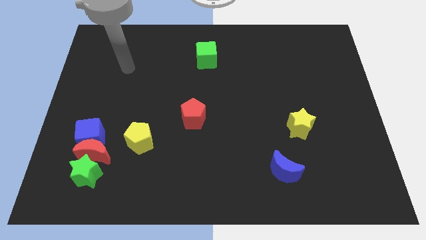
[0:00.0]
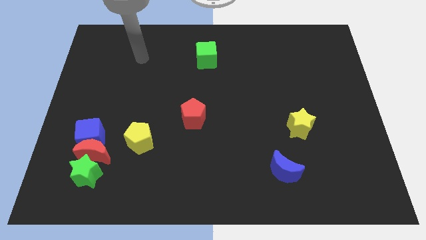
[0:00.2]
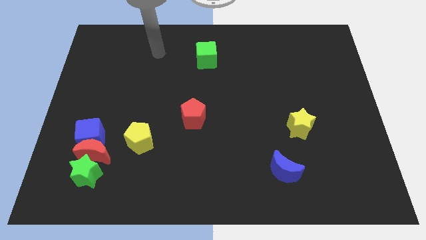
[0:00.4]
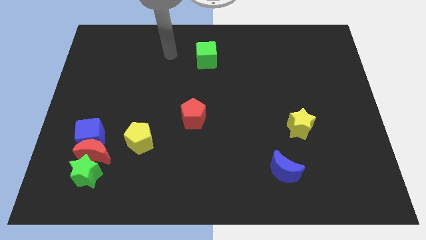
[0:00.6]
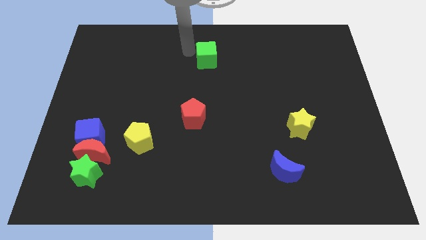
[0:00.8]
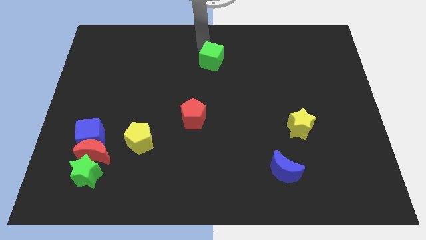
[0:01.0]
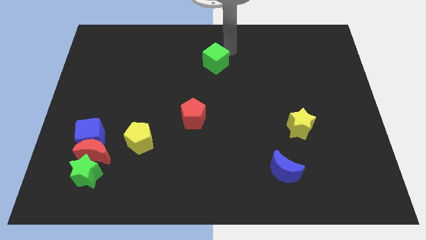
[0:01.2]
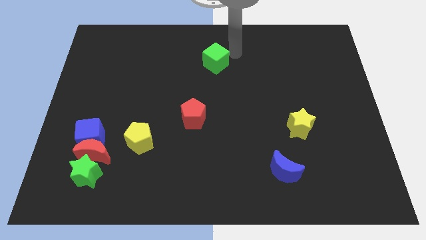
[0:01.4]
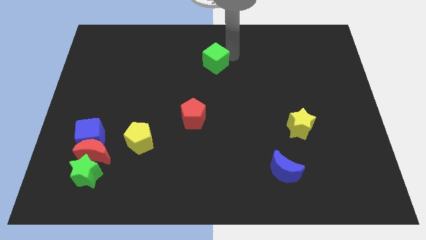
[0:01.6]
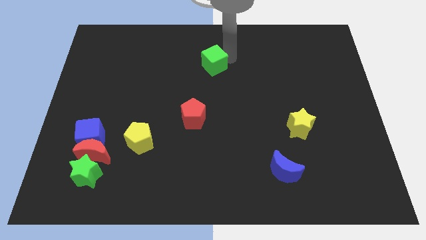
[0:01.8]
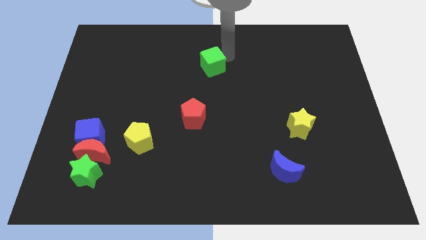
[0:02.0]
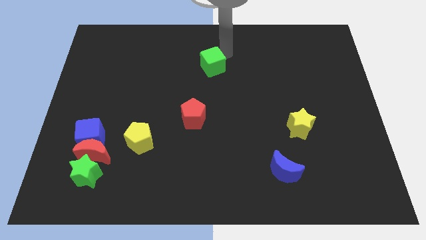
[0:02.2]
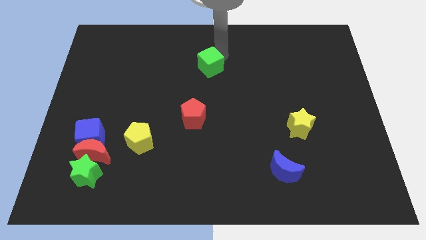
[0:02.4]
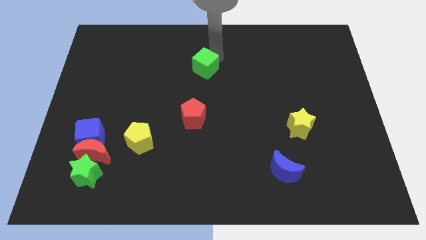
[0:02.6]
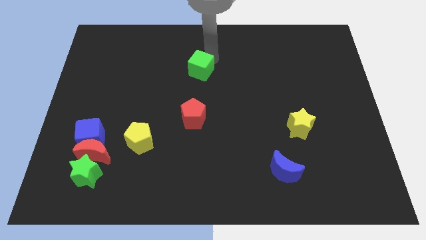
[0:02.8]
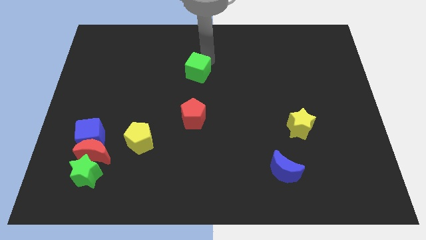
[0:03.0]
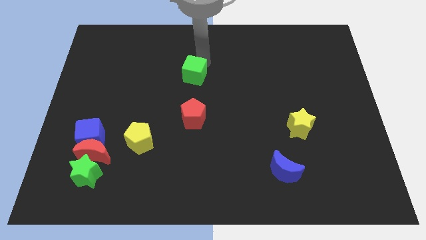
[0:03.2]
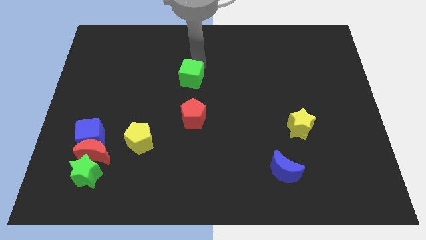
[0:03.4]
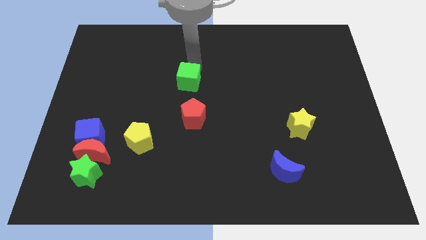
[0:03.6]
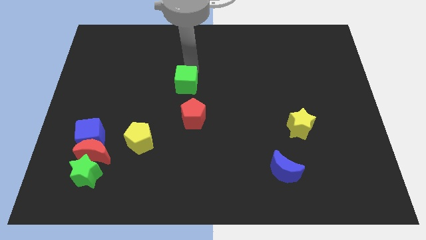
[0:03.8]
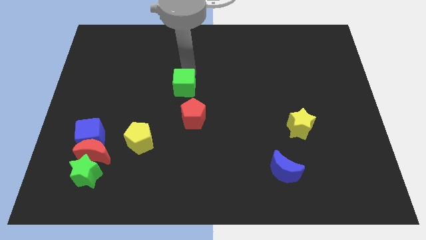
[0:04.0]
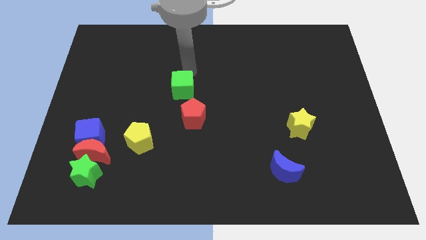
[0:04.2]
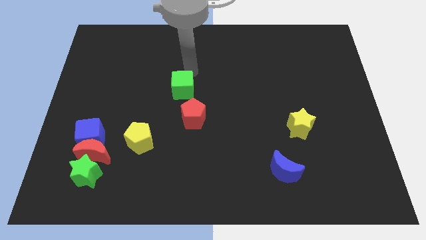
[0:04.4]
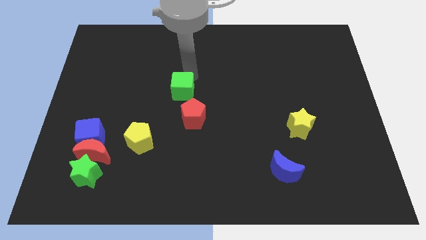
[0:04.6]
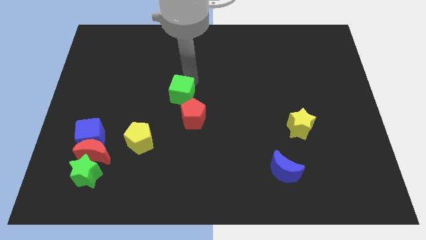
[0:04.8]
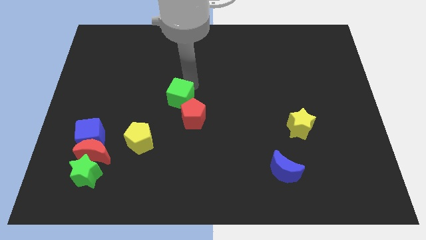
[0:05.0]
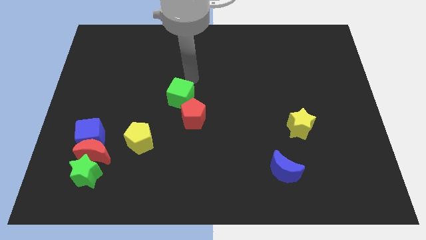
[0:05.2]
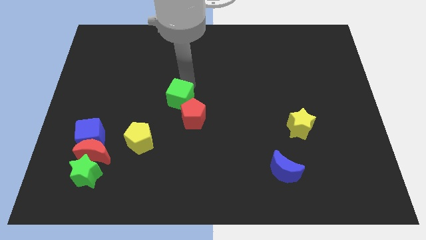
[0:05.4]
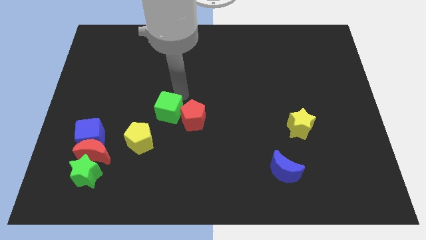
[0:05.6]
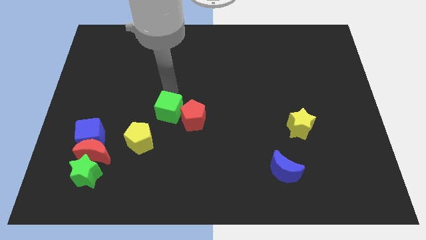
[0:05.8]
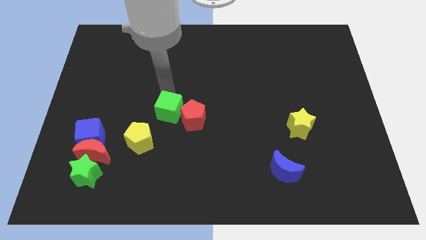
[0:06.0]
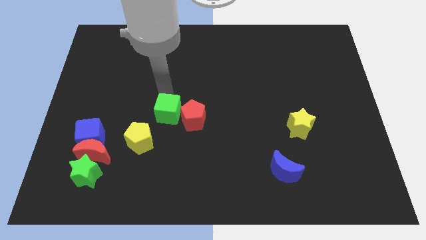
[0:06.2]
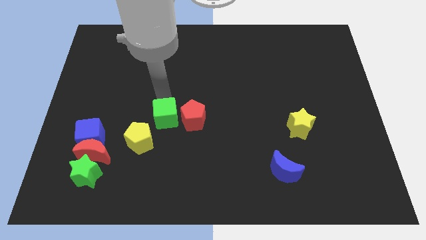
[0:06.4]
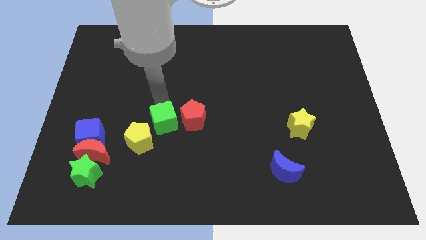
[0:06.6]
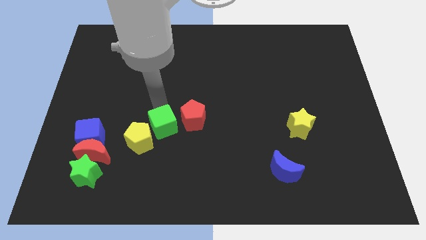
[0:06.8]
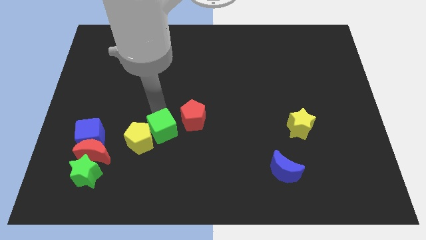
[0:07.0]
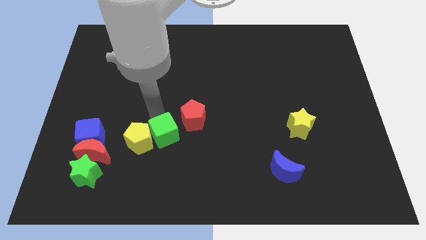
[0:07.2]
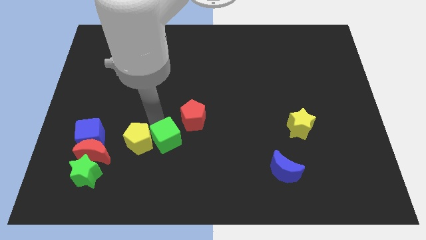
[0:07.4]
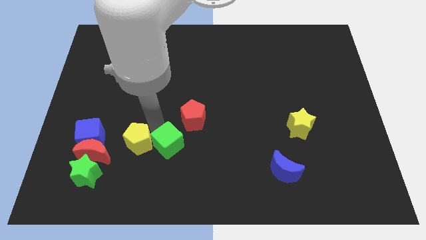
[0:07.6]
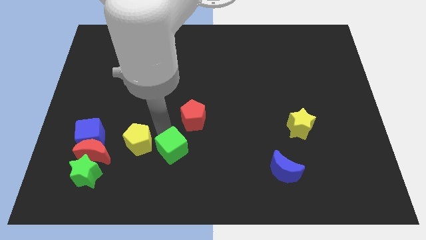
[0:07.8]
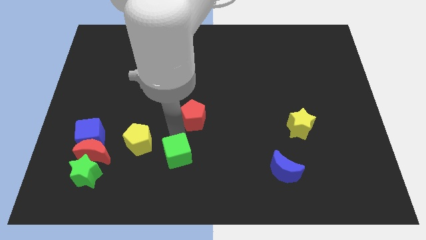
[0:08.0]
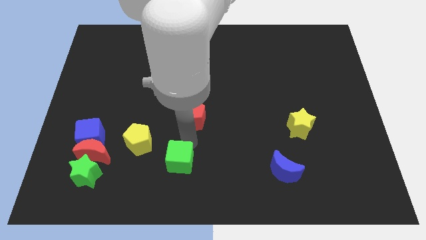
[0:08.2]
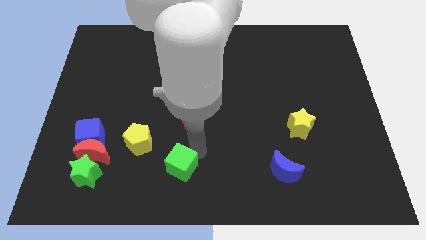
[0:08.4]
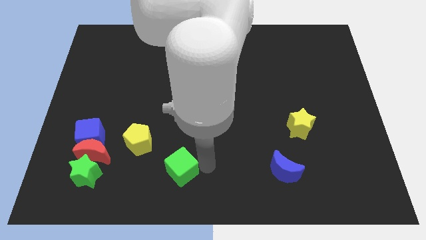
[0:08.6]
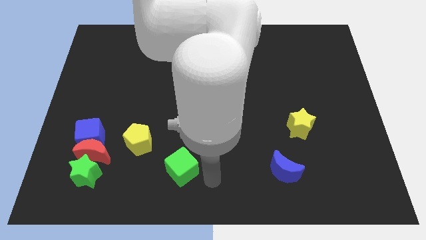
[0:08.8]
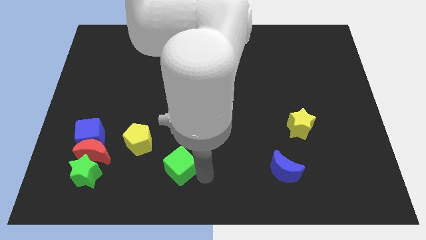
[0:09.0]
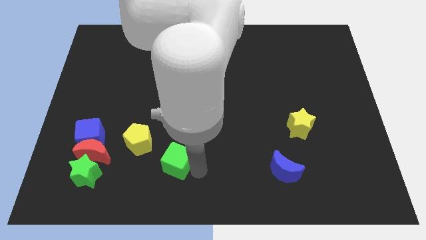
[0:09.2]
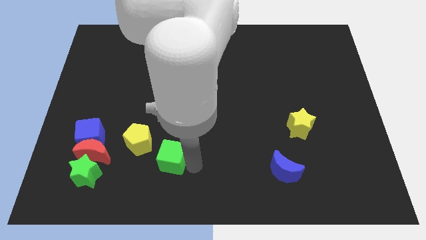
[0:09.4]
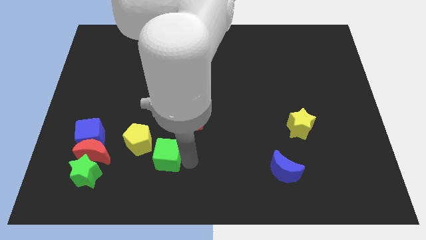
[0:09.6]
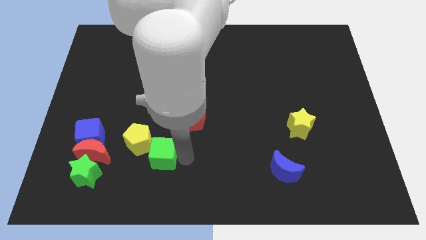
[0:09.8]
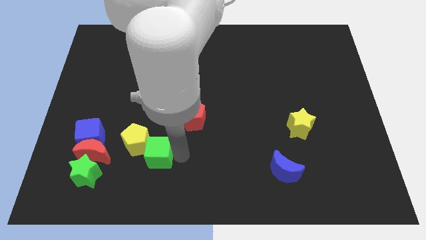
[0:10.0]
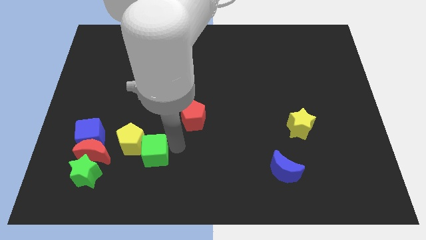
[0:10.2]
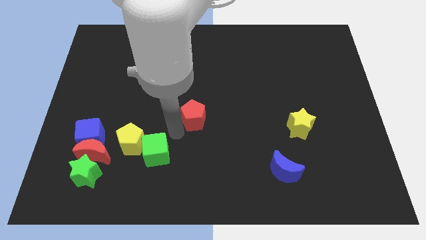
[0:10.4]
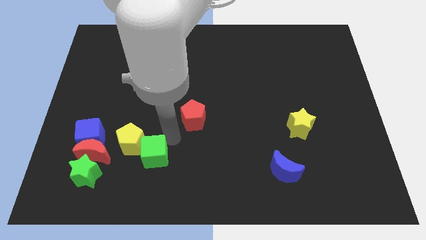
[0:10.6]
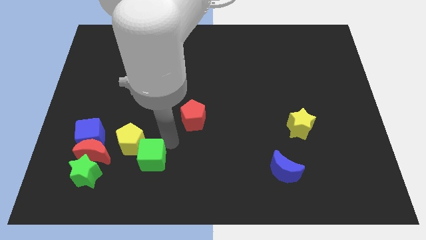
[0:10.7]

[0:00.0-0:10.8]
slide the green cube to the bottom of the yellow pentagon

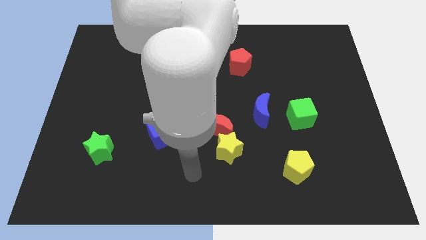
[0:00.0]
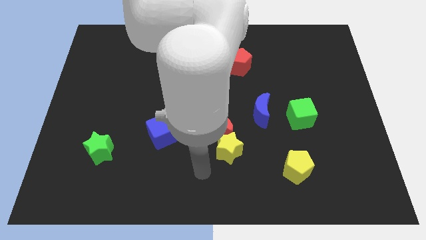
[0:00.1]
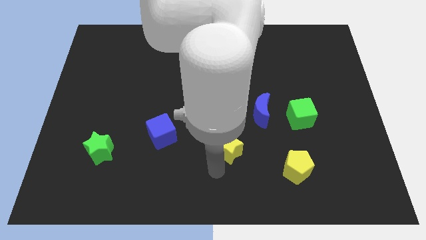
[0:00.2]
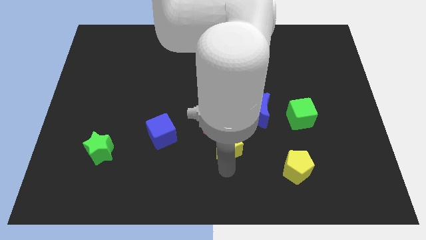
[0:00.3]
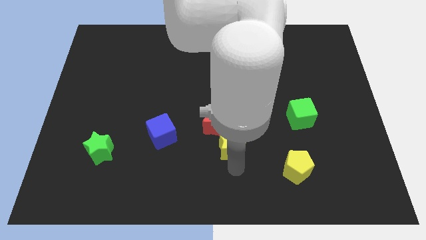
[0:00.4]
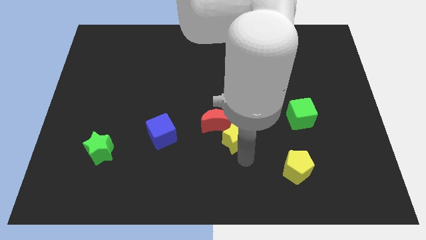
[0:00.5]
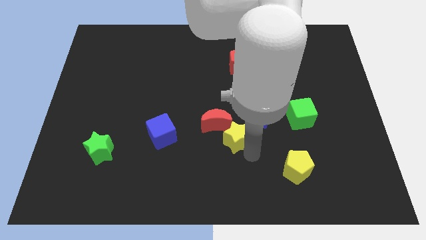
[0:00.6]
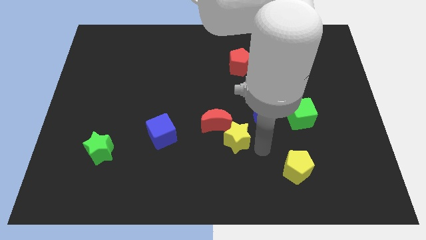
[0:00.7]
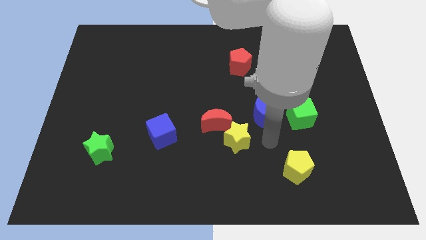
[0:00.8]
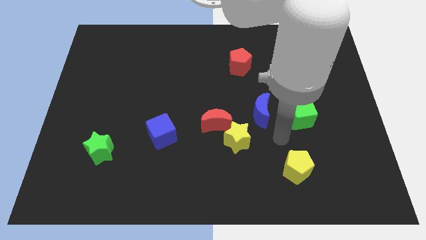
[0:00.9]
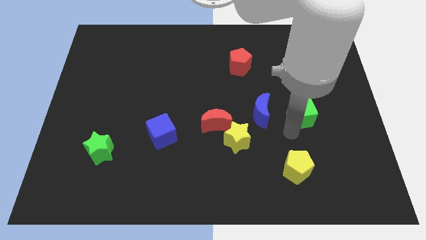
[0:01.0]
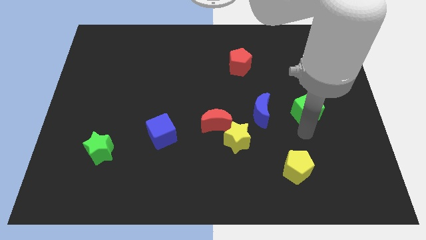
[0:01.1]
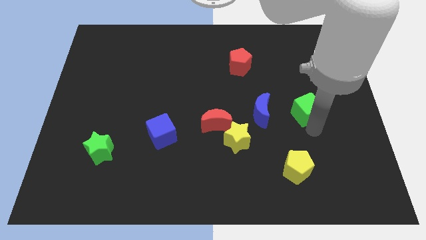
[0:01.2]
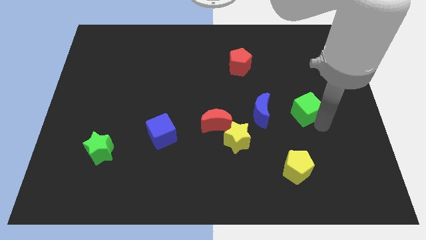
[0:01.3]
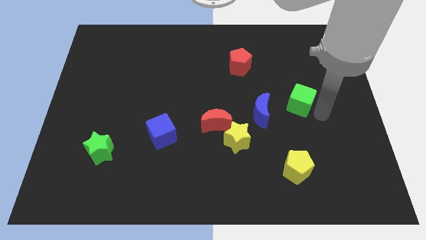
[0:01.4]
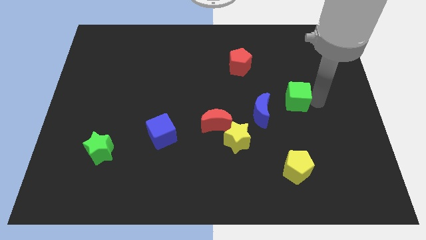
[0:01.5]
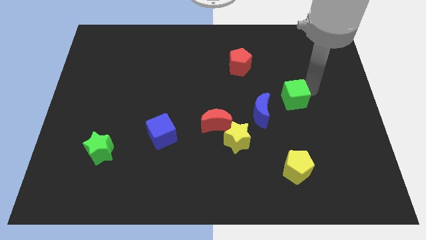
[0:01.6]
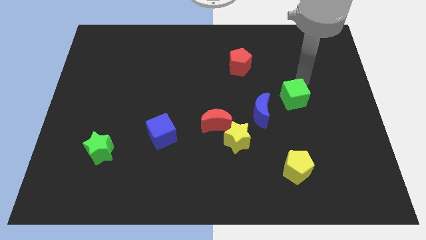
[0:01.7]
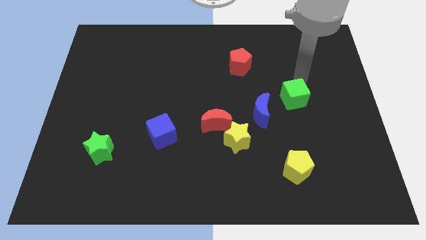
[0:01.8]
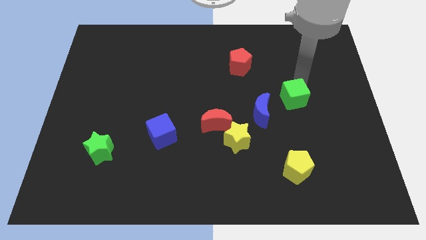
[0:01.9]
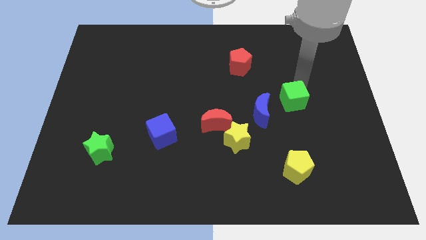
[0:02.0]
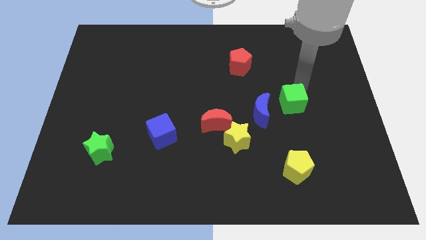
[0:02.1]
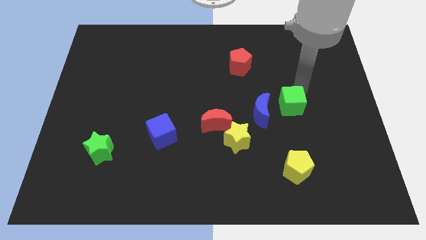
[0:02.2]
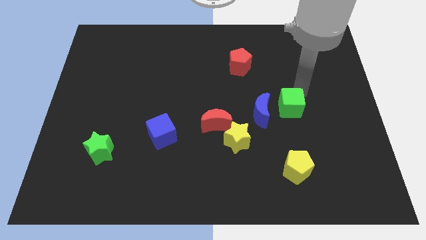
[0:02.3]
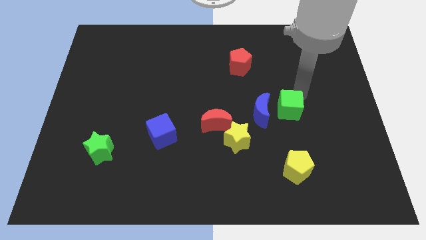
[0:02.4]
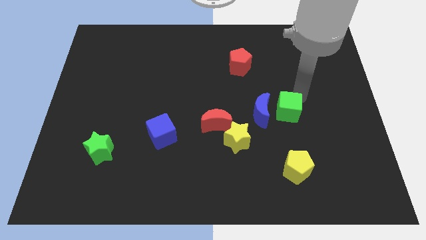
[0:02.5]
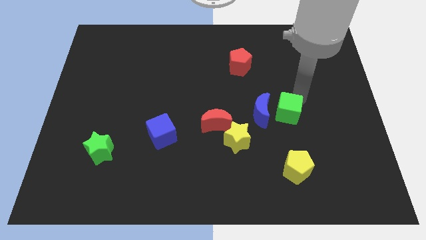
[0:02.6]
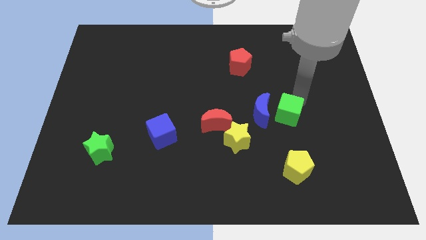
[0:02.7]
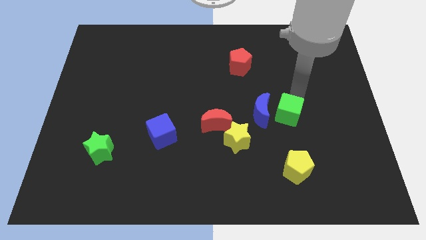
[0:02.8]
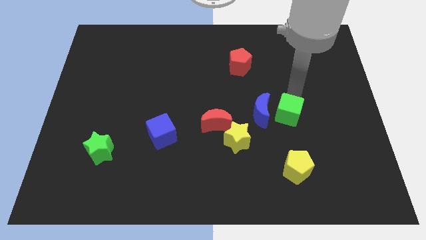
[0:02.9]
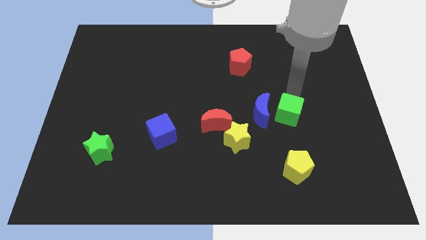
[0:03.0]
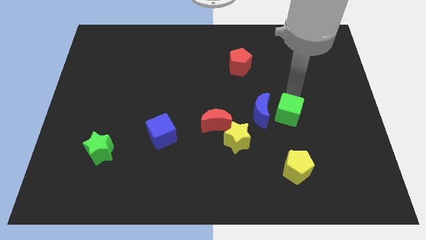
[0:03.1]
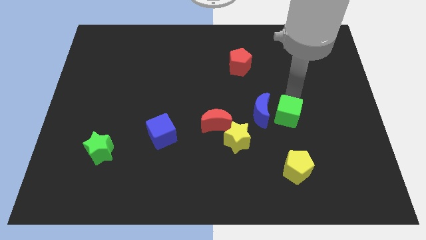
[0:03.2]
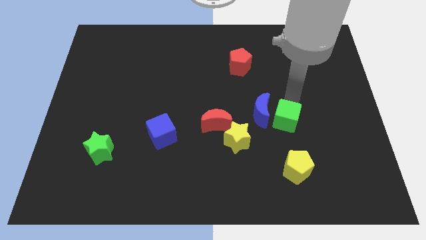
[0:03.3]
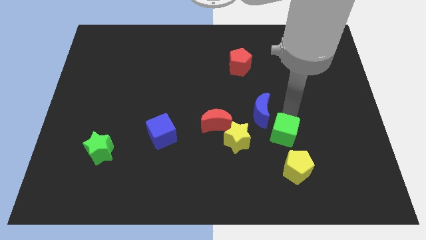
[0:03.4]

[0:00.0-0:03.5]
move the green cube to the bottom of the blue moon
